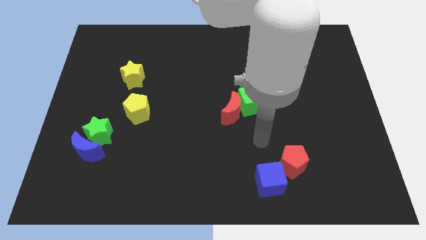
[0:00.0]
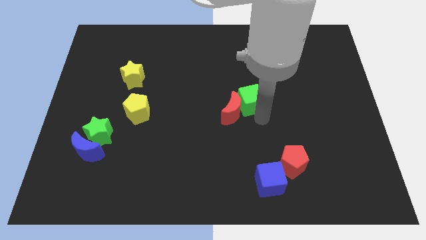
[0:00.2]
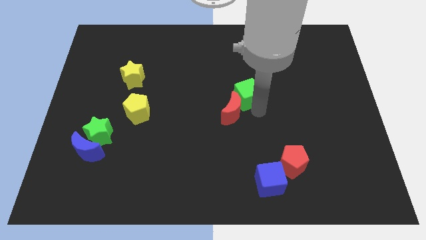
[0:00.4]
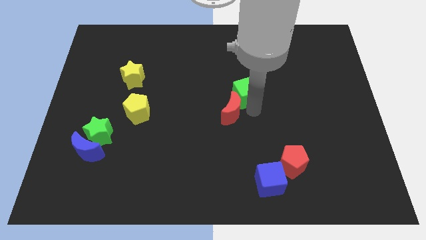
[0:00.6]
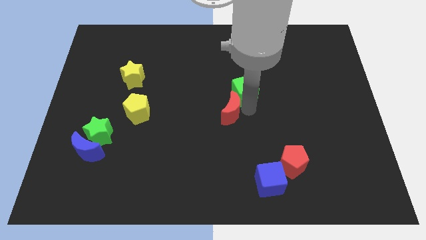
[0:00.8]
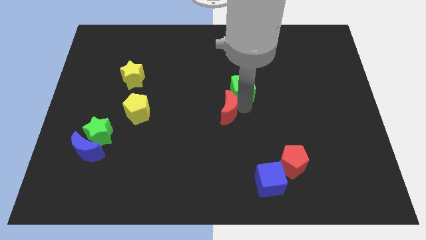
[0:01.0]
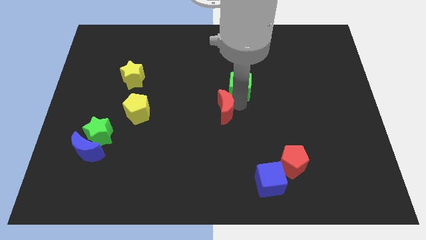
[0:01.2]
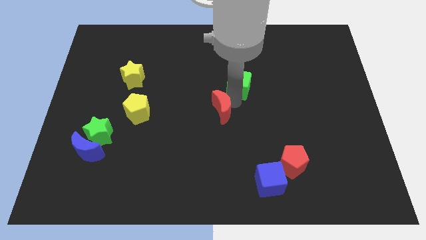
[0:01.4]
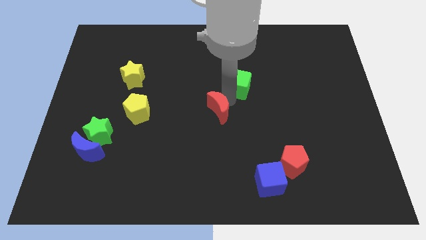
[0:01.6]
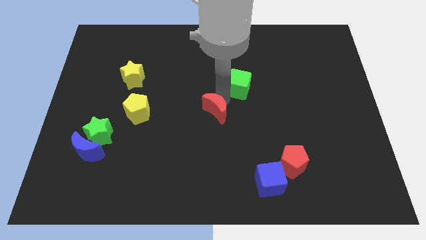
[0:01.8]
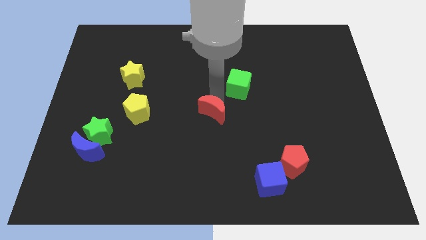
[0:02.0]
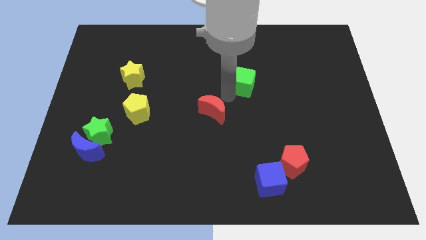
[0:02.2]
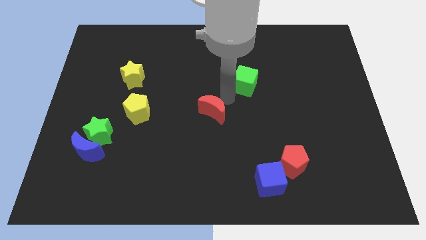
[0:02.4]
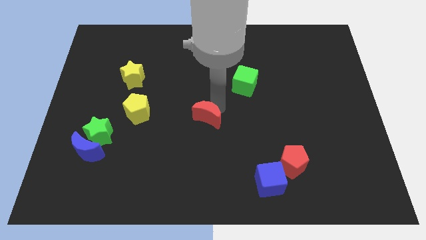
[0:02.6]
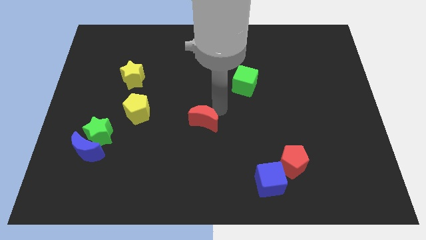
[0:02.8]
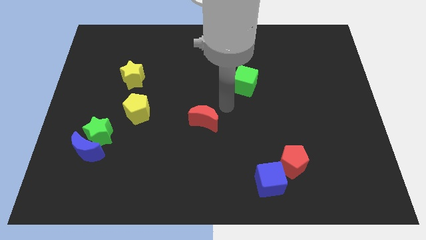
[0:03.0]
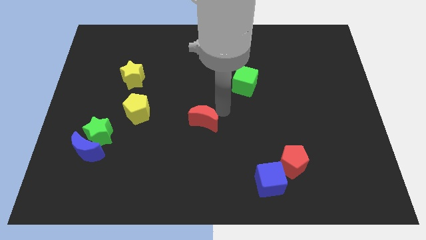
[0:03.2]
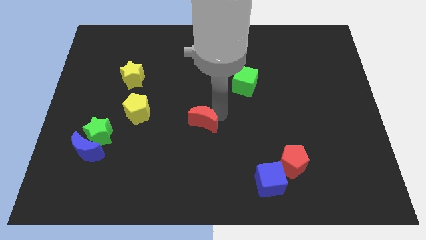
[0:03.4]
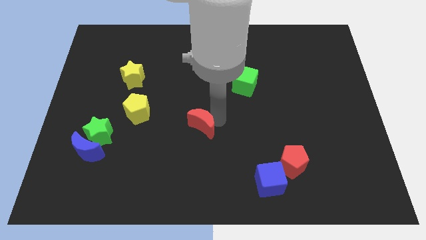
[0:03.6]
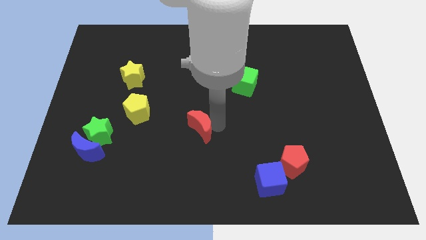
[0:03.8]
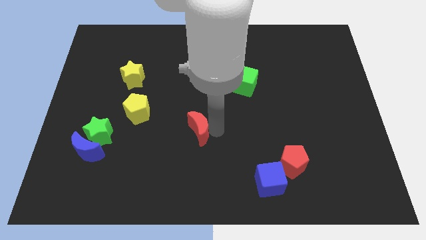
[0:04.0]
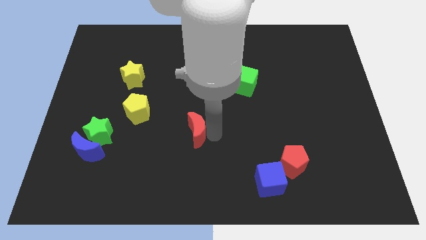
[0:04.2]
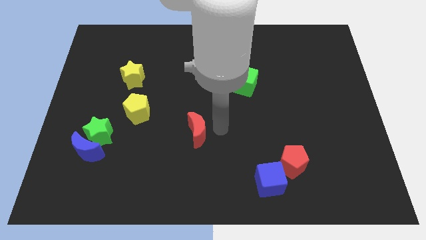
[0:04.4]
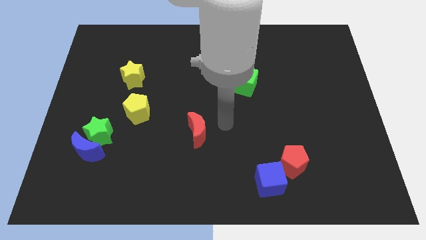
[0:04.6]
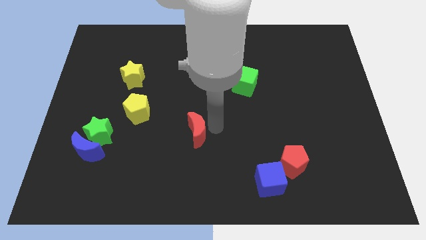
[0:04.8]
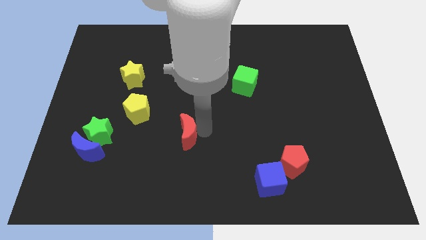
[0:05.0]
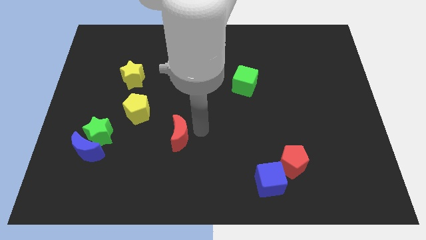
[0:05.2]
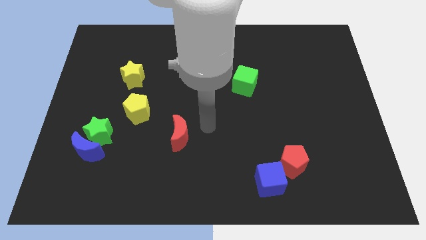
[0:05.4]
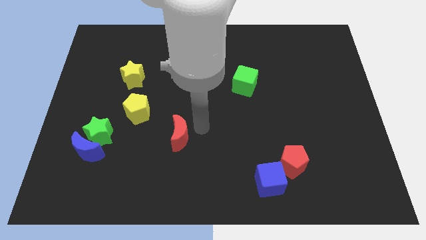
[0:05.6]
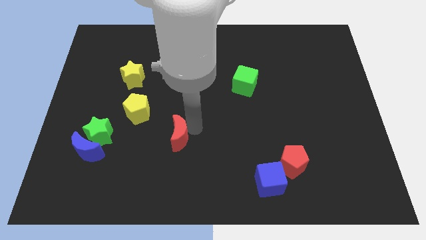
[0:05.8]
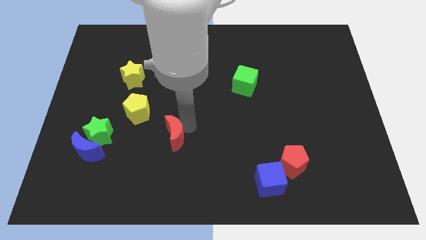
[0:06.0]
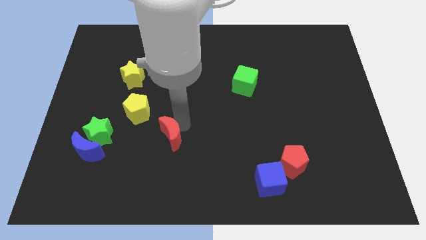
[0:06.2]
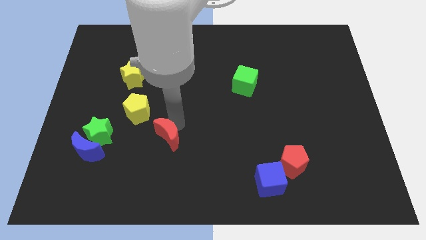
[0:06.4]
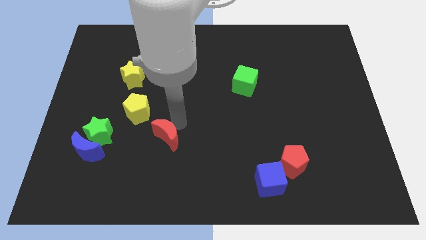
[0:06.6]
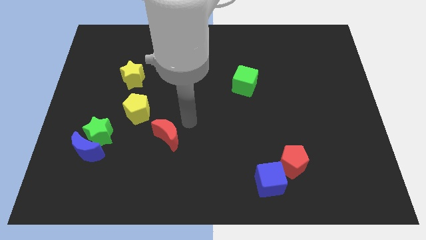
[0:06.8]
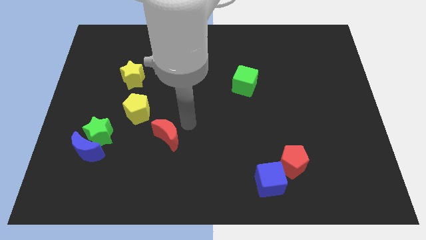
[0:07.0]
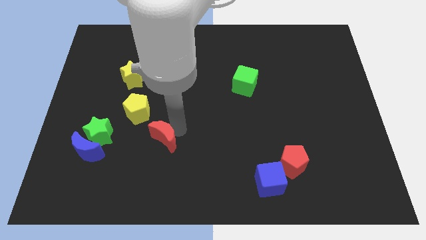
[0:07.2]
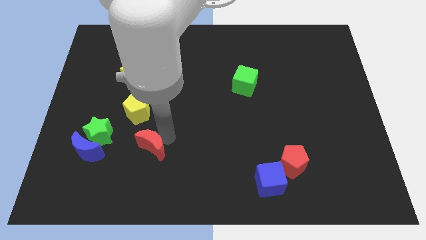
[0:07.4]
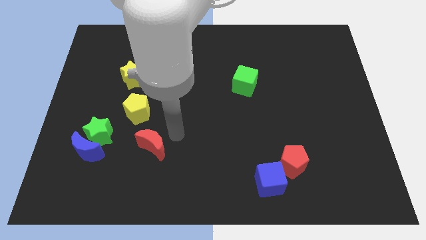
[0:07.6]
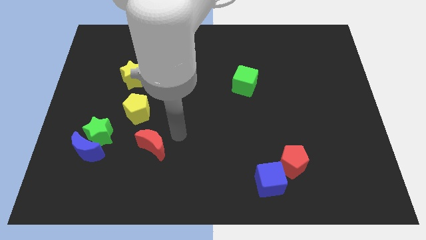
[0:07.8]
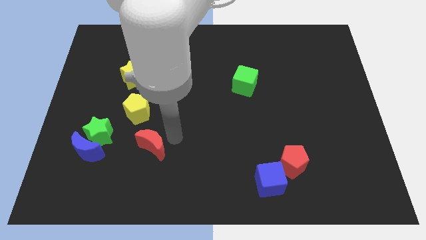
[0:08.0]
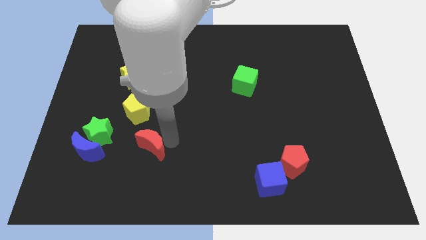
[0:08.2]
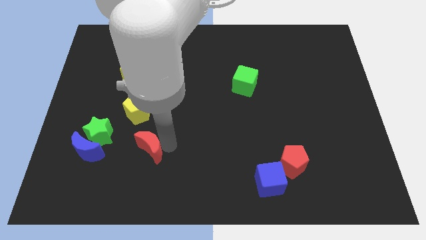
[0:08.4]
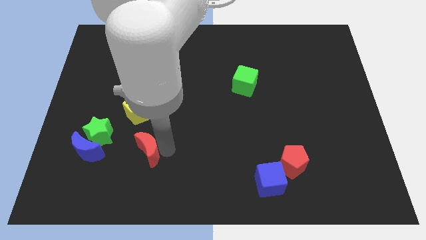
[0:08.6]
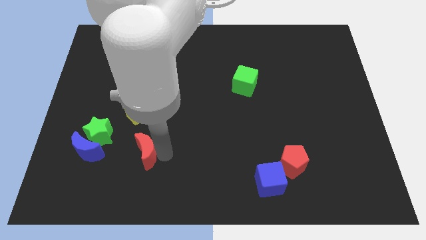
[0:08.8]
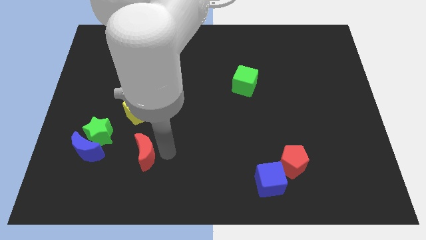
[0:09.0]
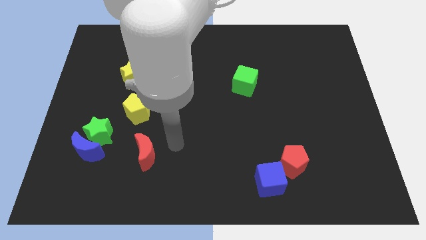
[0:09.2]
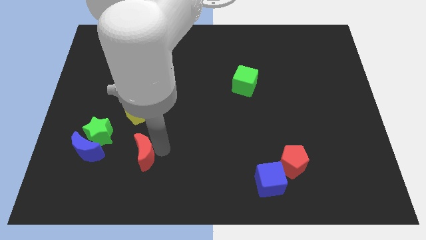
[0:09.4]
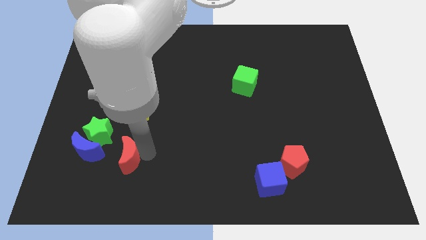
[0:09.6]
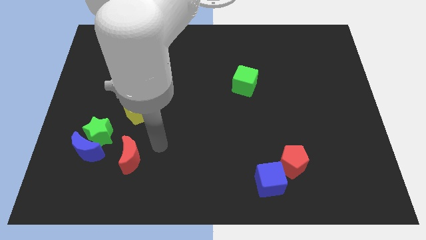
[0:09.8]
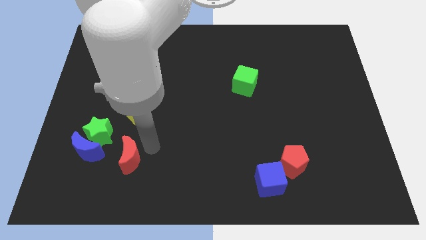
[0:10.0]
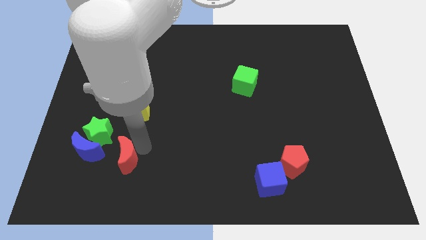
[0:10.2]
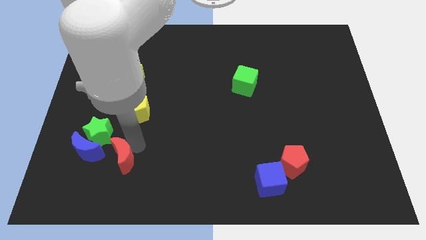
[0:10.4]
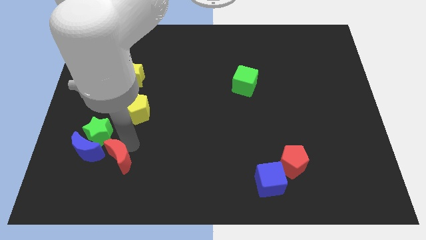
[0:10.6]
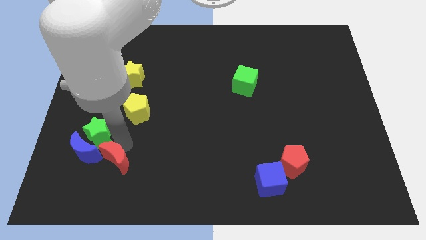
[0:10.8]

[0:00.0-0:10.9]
move the red moon below the green star

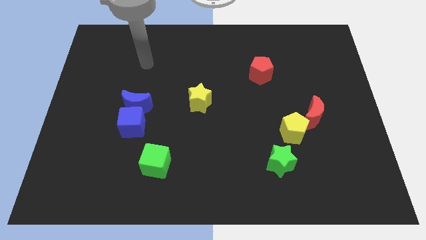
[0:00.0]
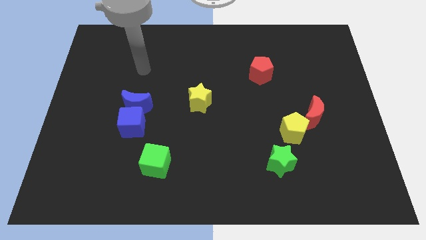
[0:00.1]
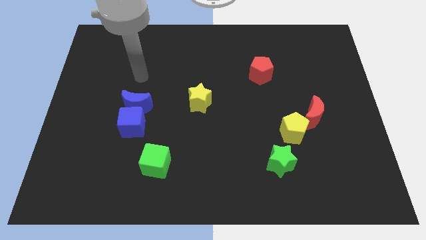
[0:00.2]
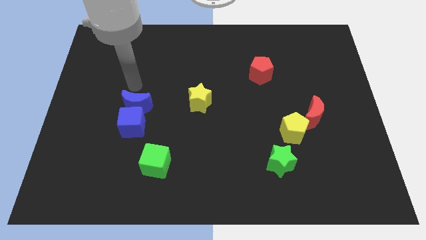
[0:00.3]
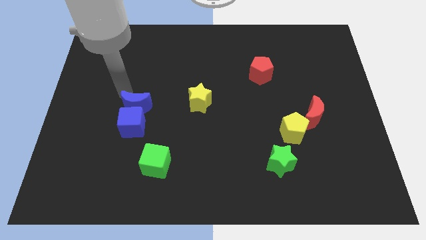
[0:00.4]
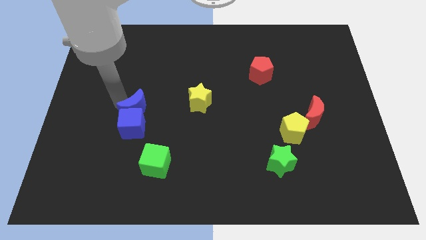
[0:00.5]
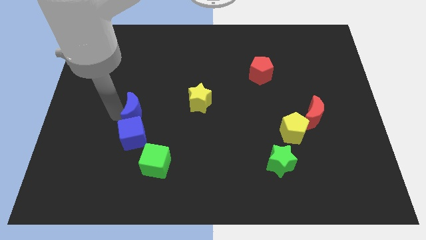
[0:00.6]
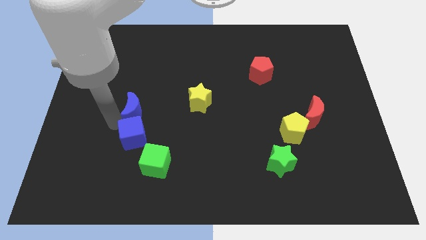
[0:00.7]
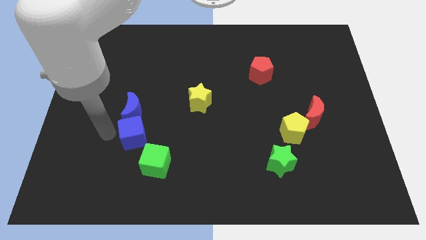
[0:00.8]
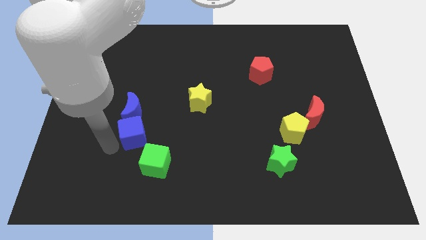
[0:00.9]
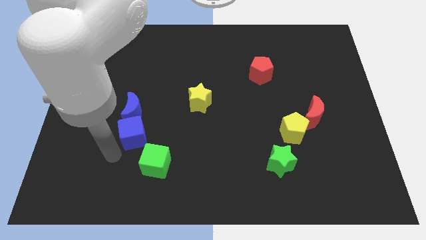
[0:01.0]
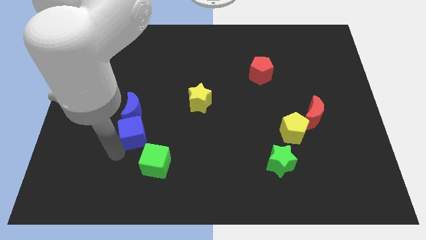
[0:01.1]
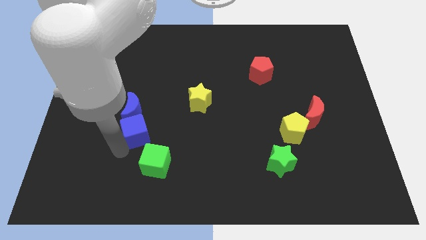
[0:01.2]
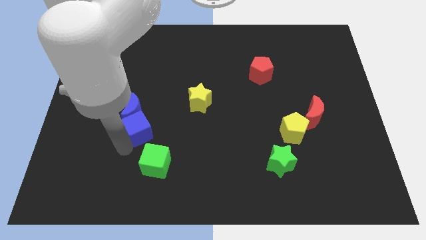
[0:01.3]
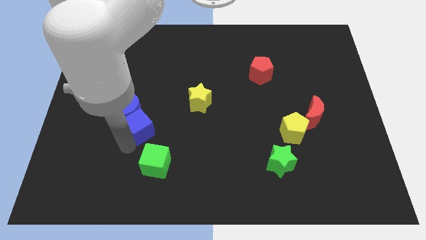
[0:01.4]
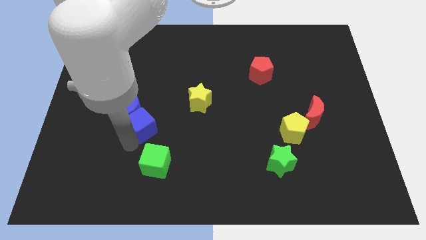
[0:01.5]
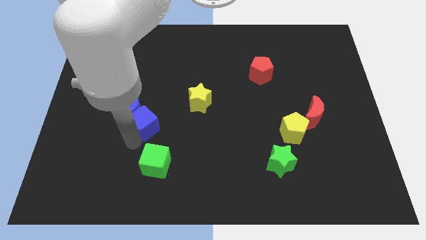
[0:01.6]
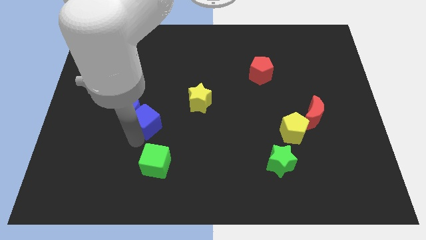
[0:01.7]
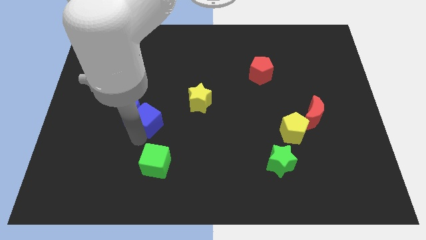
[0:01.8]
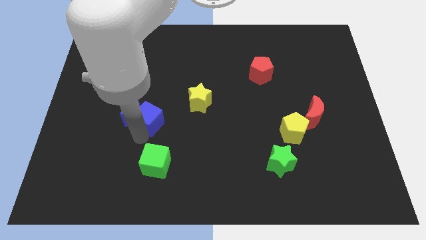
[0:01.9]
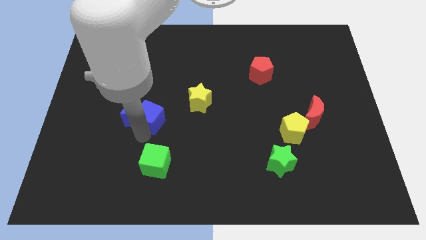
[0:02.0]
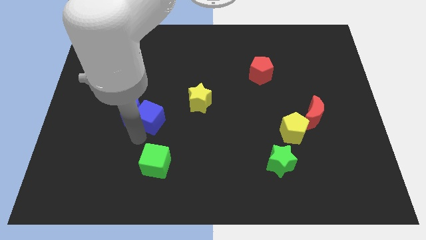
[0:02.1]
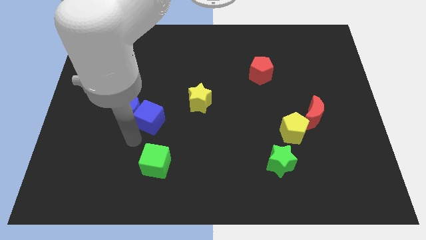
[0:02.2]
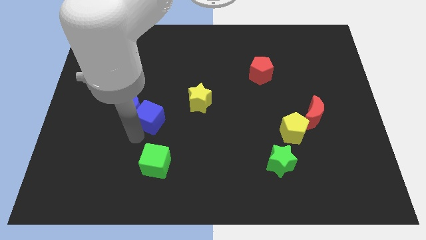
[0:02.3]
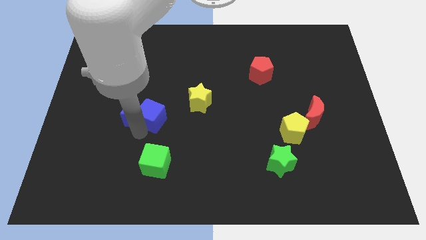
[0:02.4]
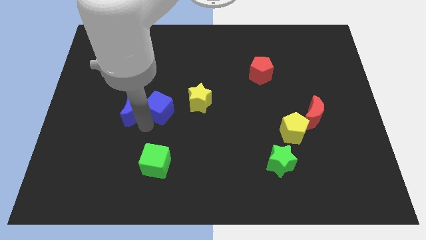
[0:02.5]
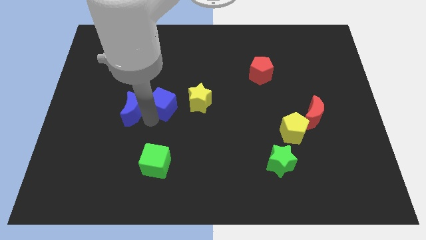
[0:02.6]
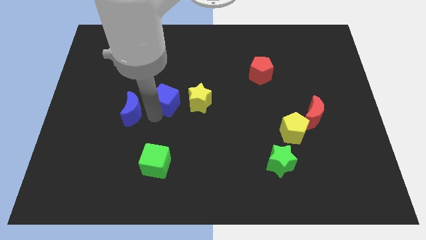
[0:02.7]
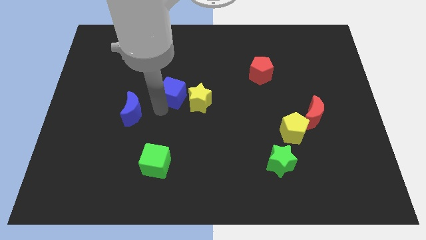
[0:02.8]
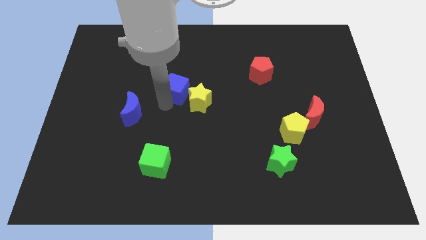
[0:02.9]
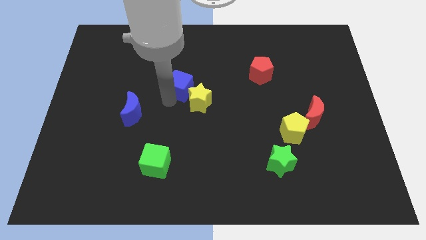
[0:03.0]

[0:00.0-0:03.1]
slide the blue cube to the top of the yellow star
